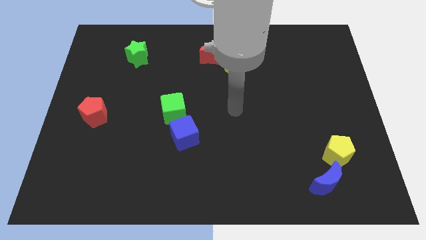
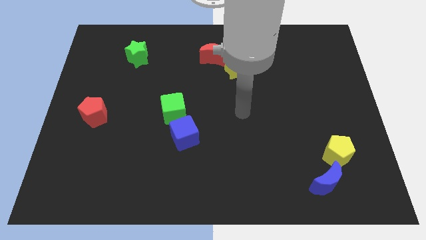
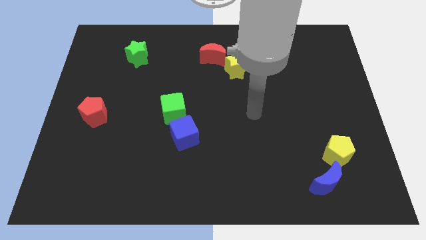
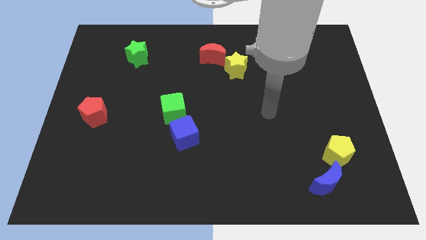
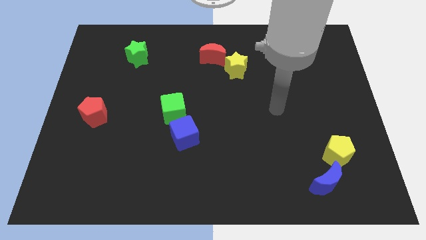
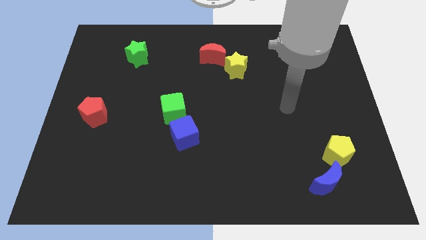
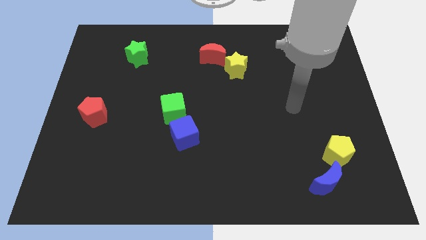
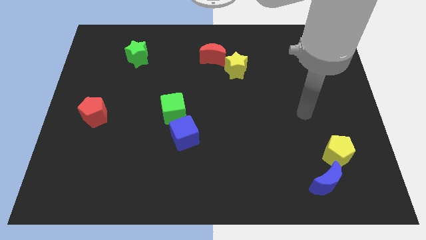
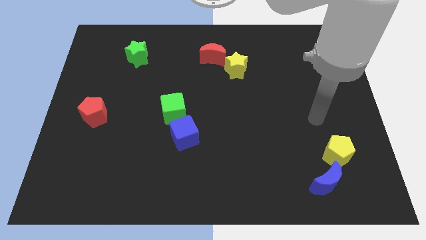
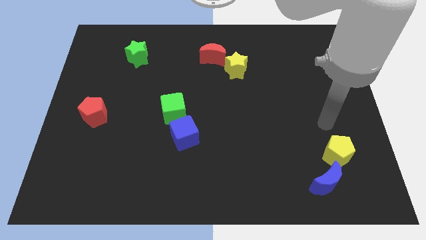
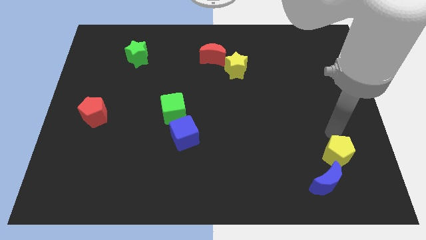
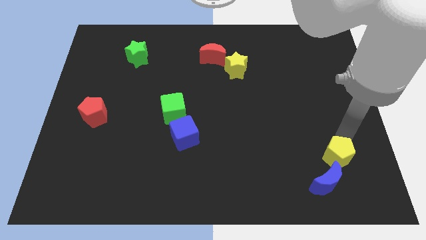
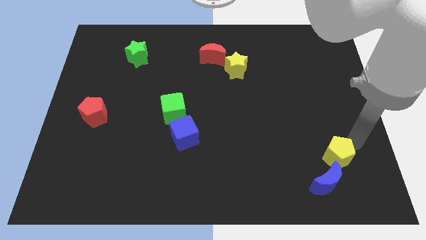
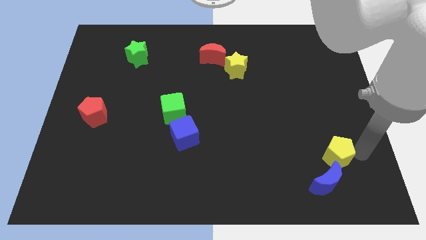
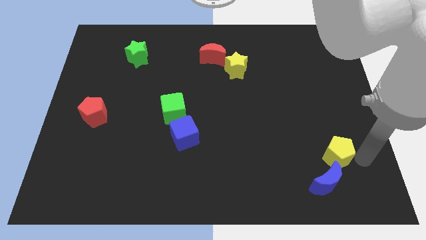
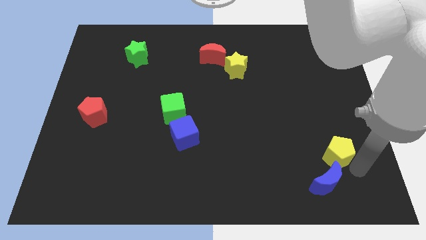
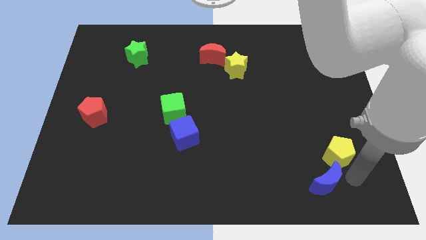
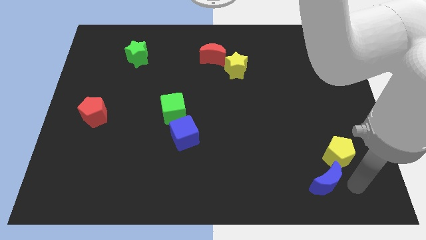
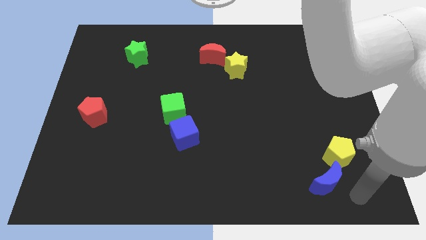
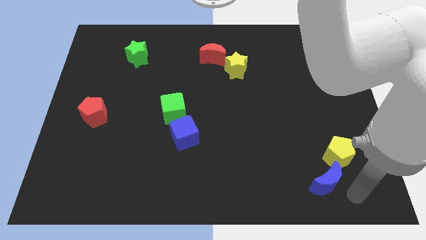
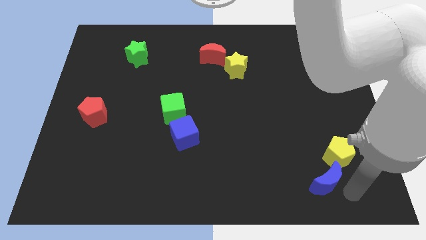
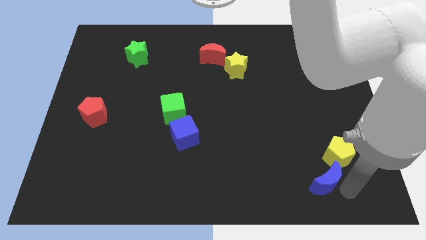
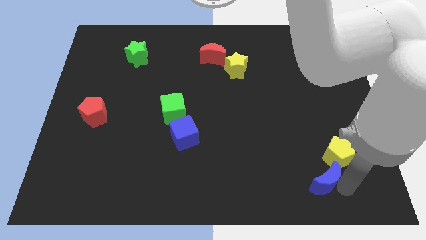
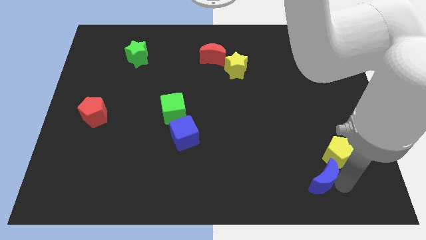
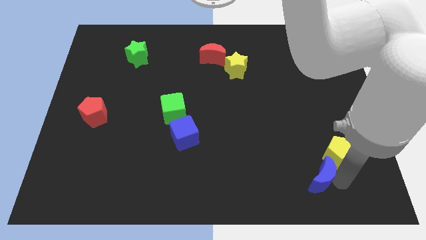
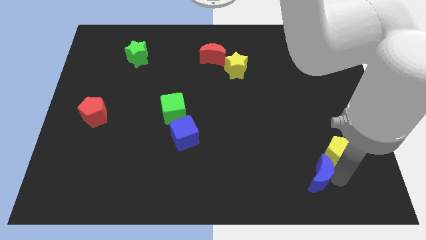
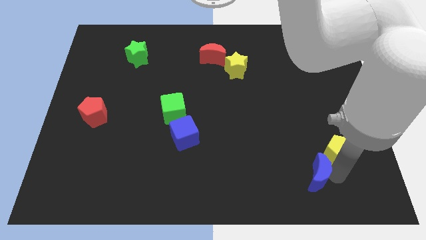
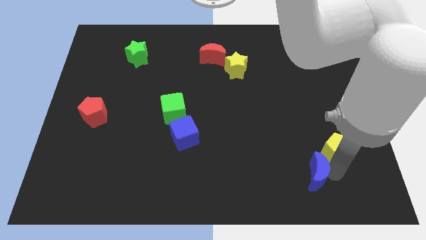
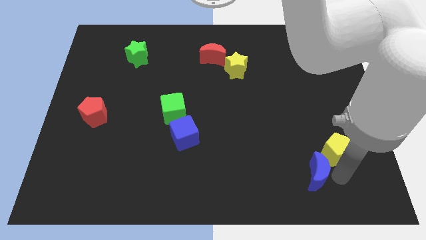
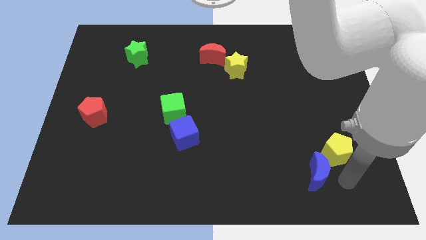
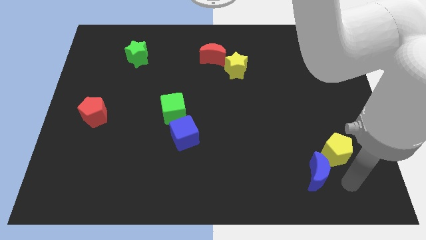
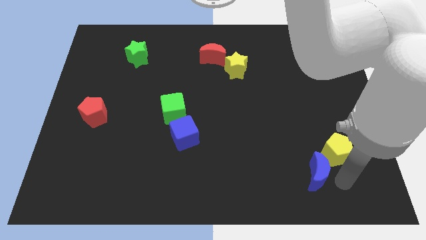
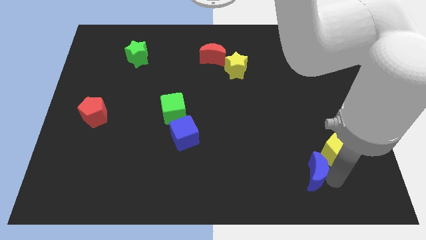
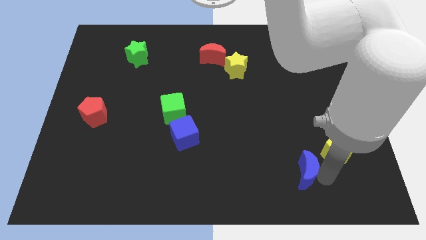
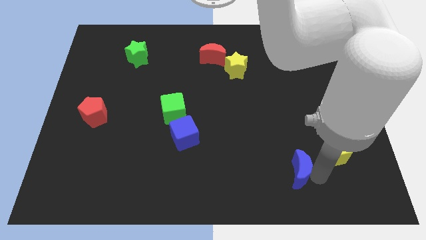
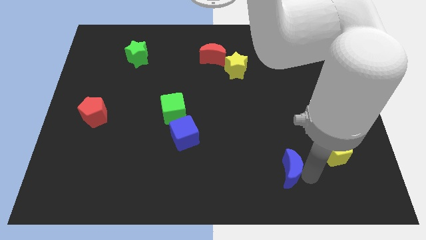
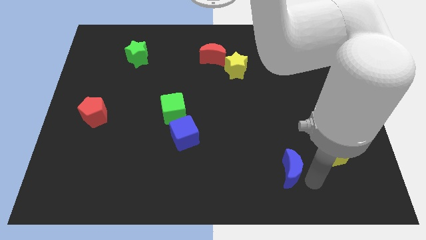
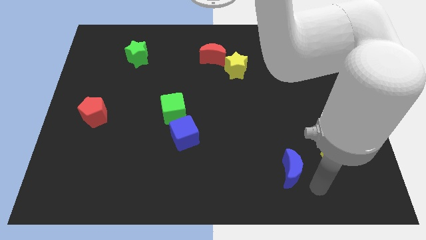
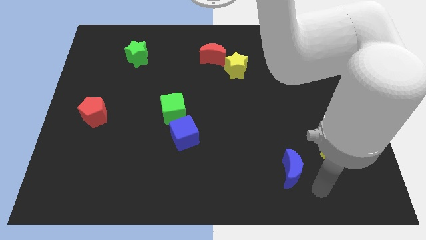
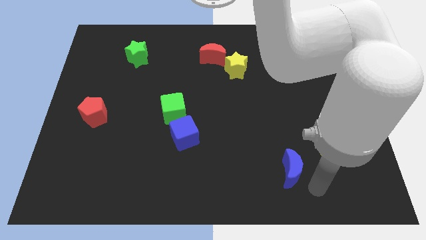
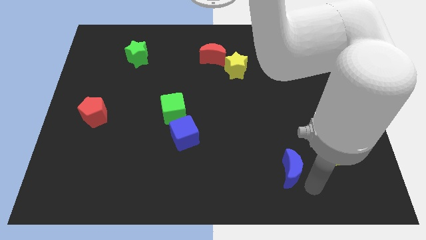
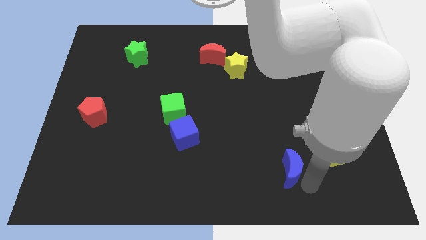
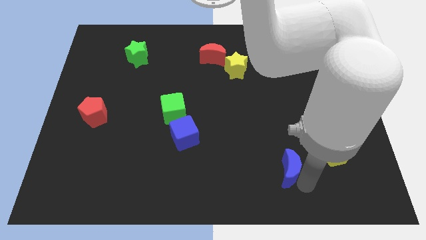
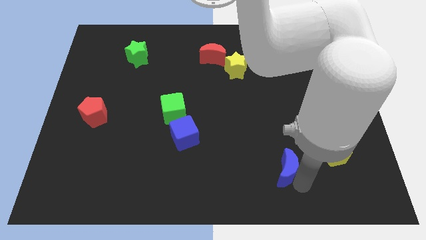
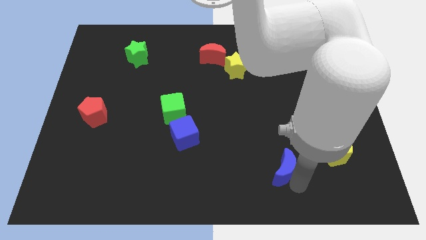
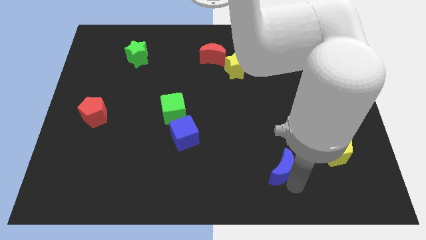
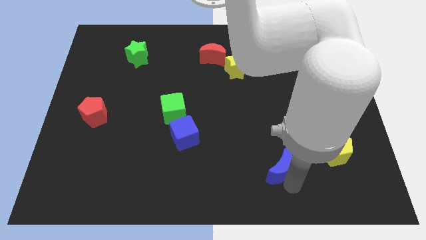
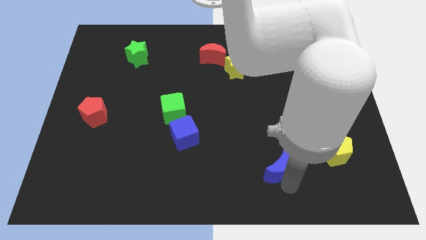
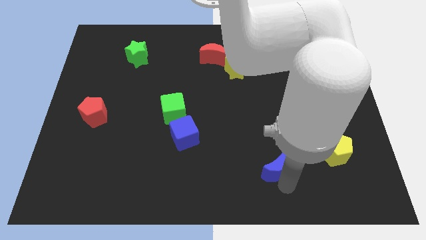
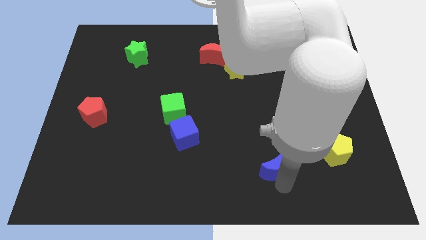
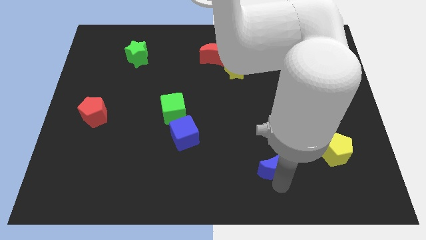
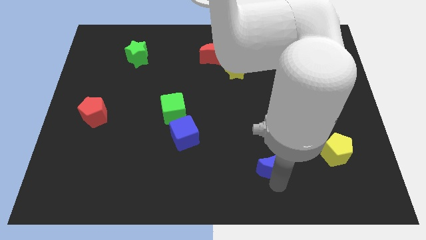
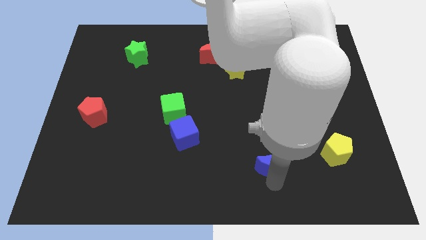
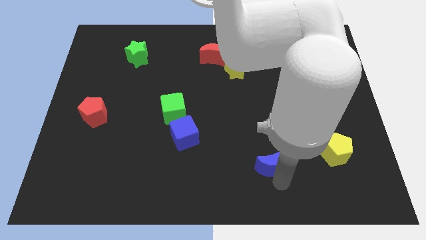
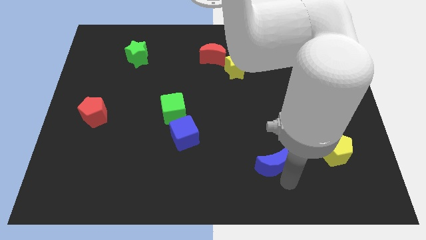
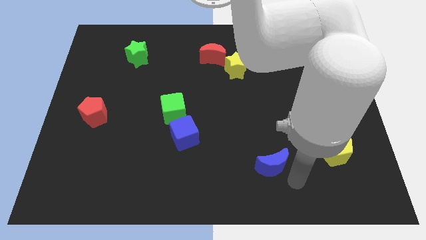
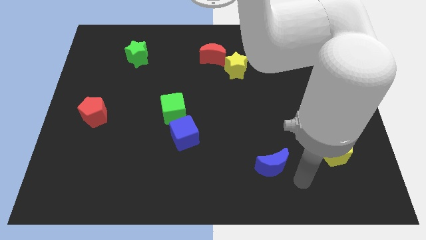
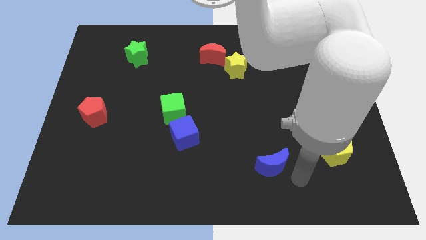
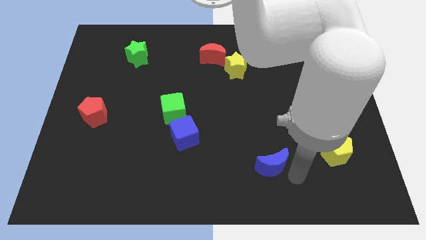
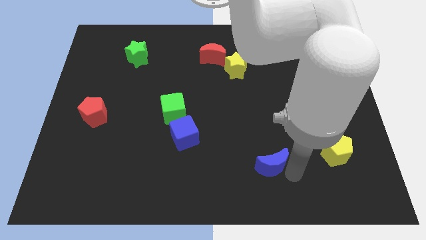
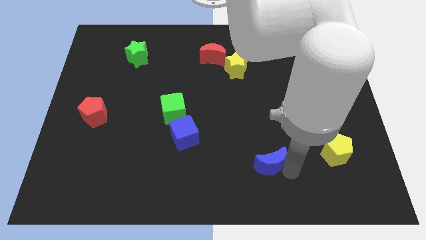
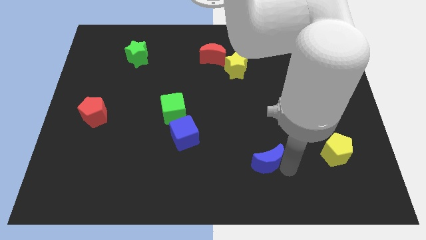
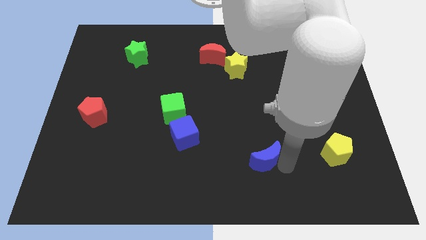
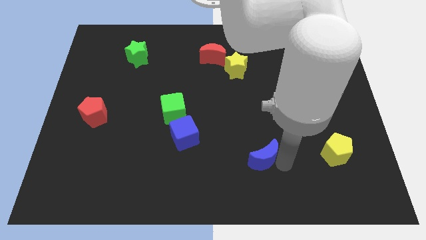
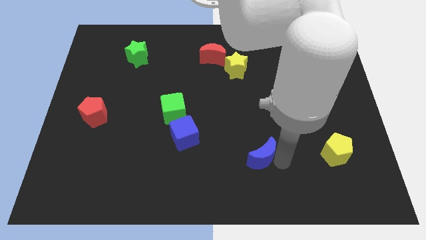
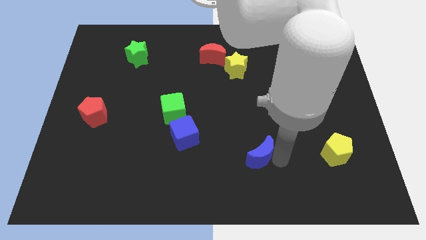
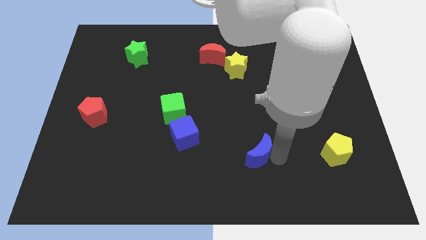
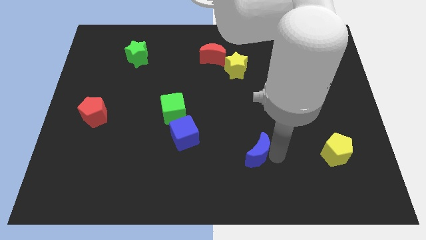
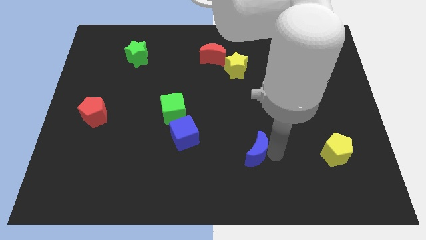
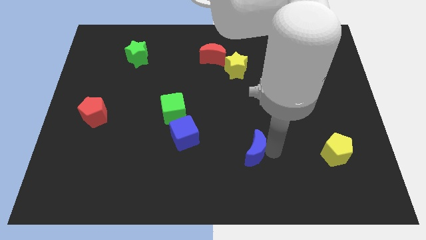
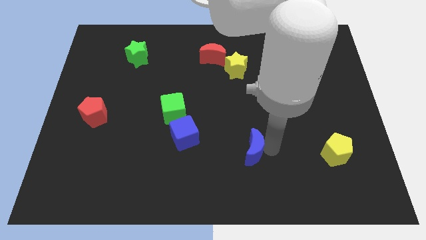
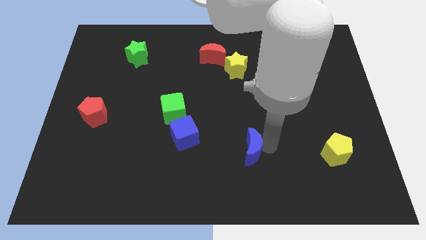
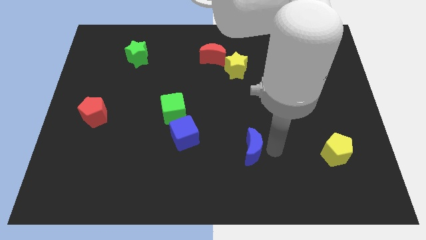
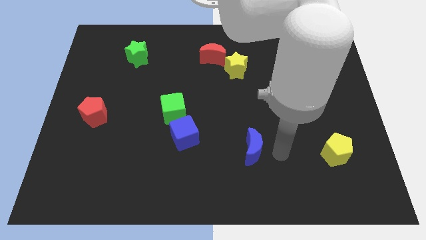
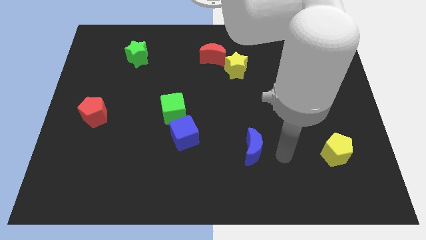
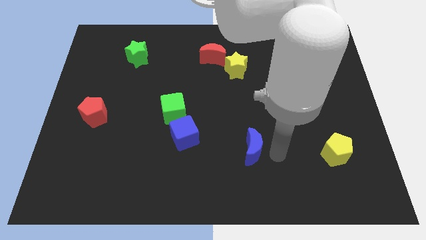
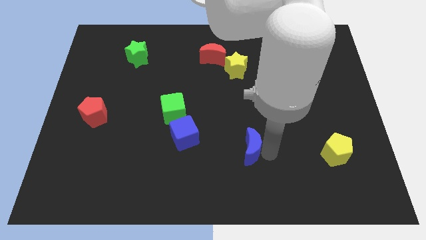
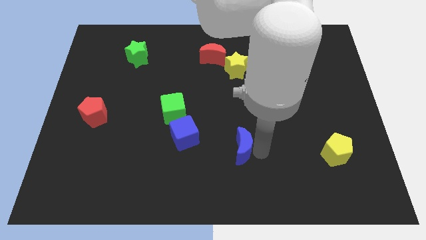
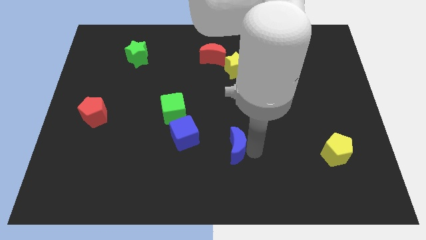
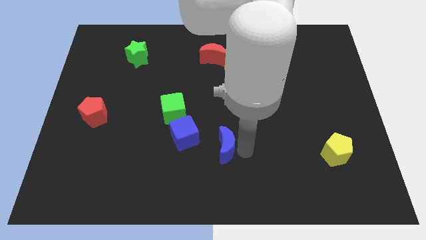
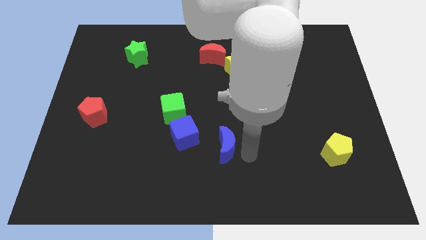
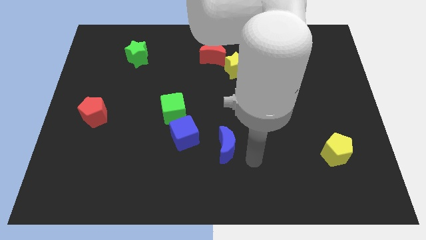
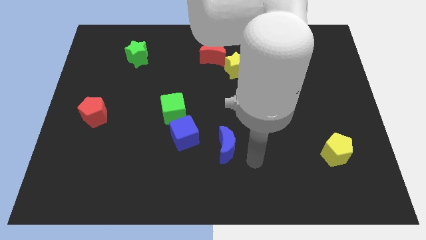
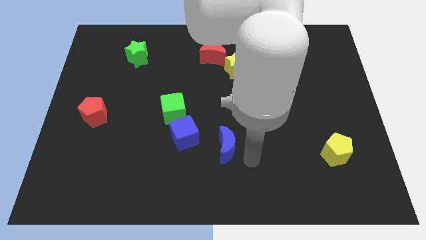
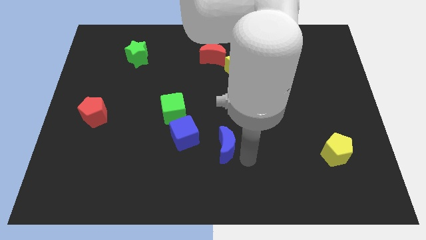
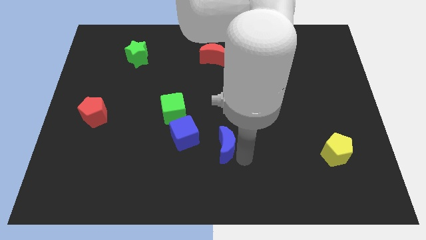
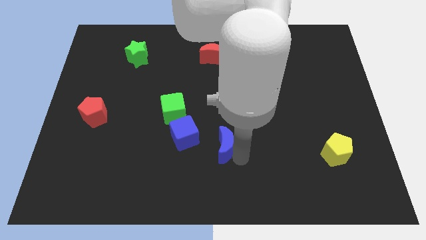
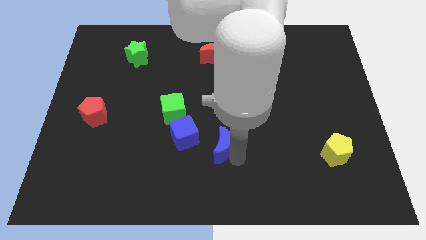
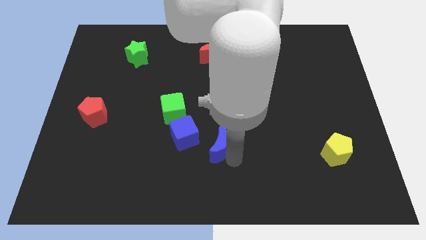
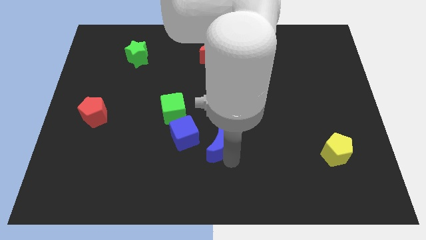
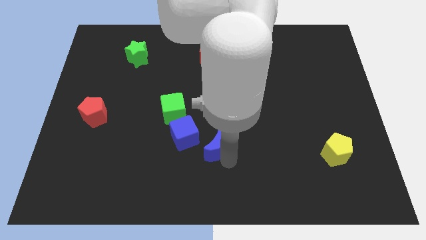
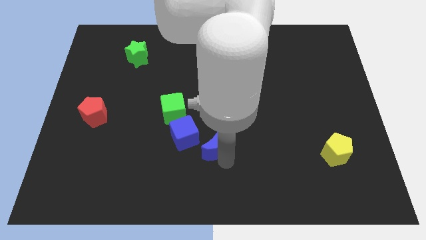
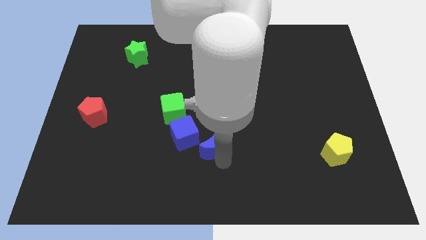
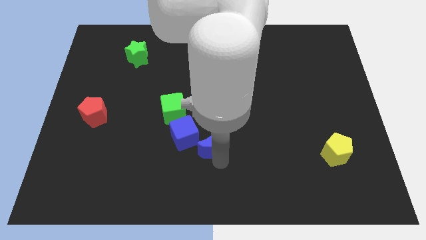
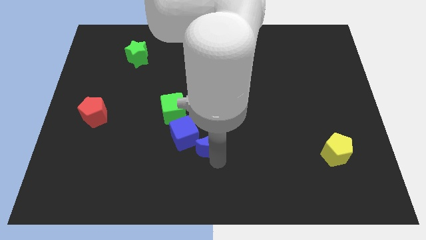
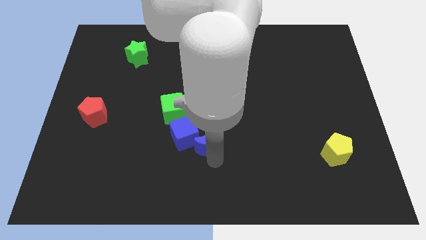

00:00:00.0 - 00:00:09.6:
move the blue moon close to the blue cube
